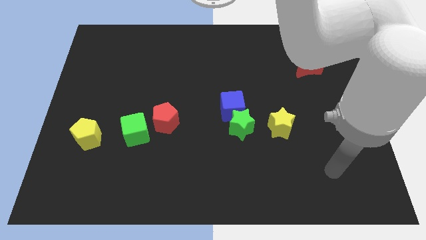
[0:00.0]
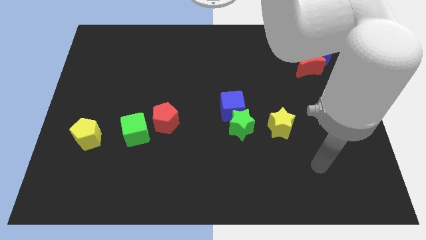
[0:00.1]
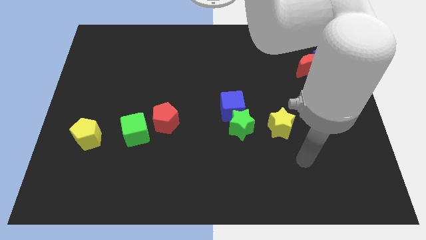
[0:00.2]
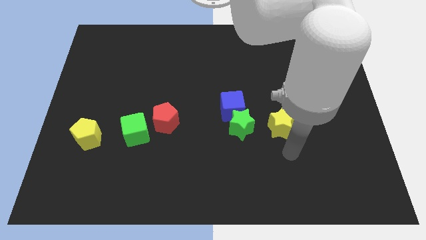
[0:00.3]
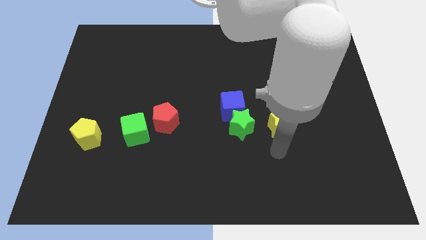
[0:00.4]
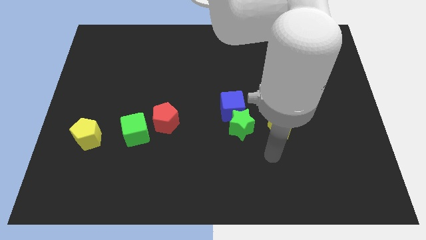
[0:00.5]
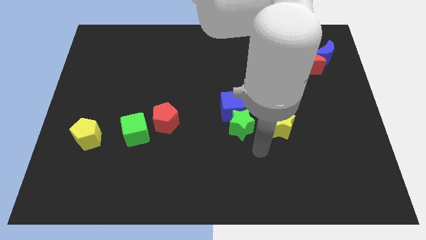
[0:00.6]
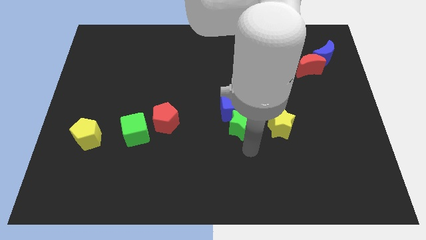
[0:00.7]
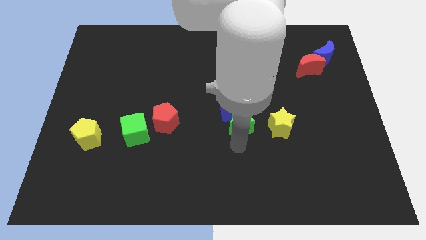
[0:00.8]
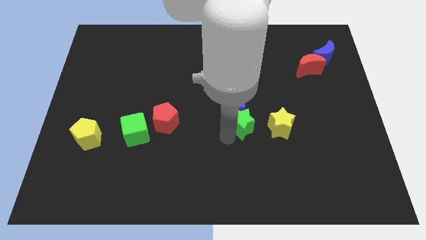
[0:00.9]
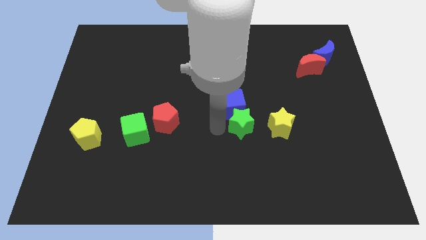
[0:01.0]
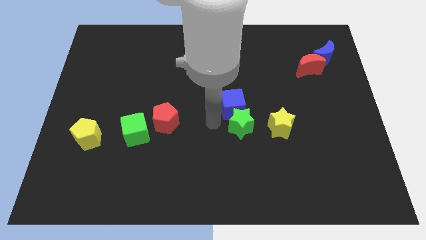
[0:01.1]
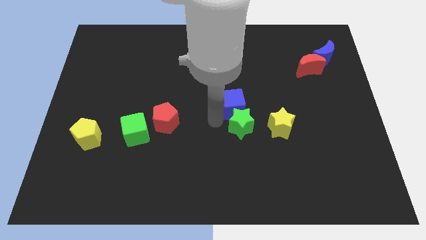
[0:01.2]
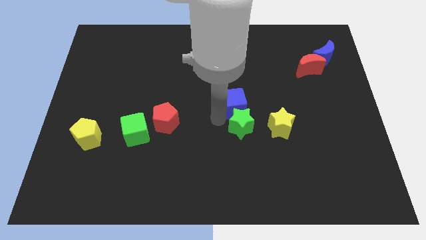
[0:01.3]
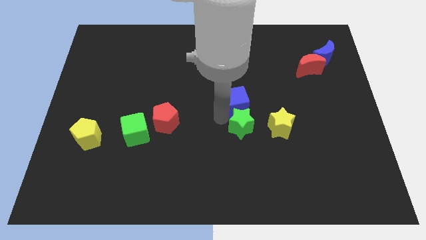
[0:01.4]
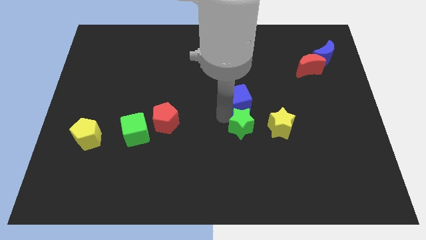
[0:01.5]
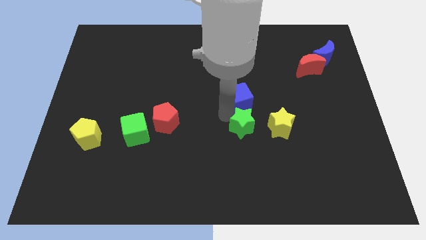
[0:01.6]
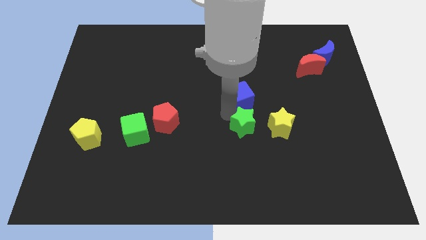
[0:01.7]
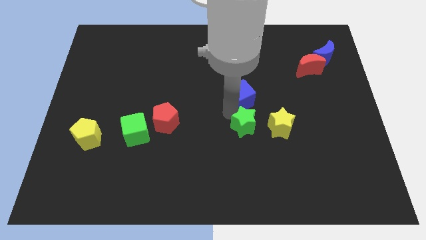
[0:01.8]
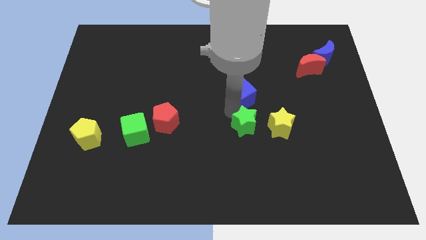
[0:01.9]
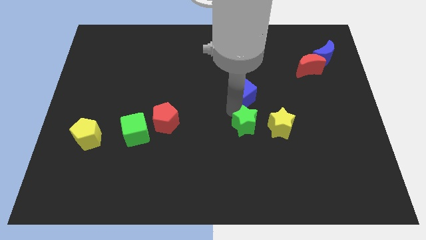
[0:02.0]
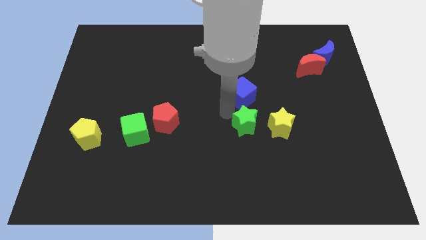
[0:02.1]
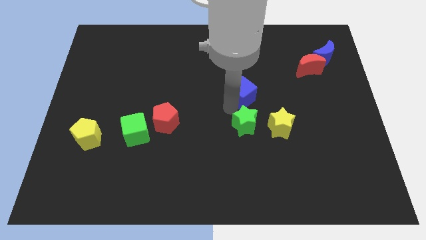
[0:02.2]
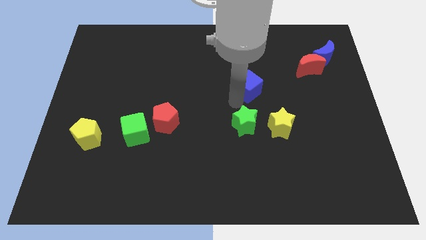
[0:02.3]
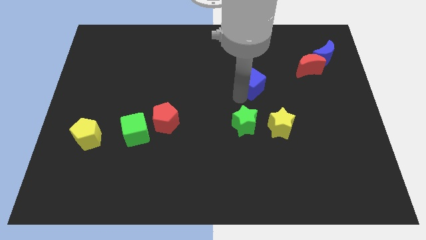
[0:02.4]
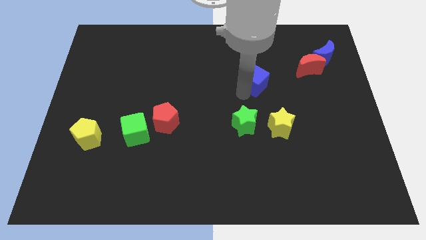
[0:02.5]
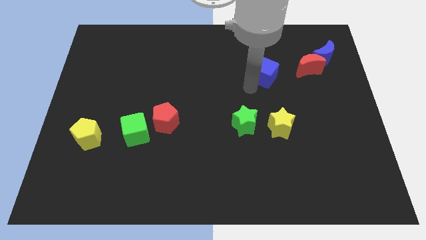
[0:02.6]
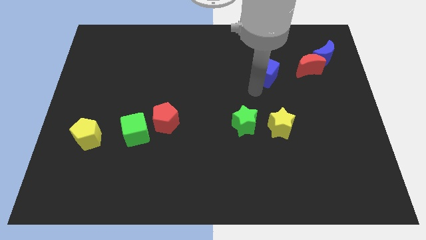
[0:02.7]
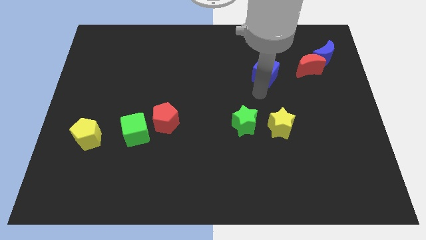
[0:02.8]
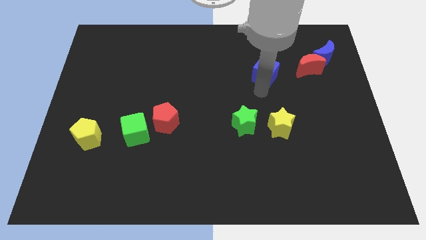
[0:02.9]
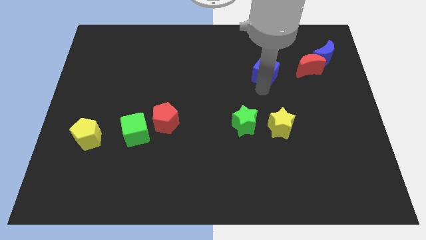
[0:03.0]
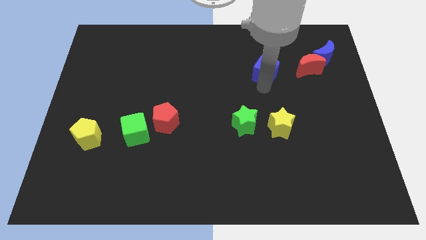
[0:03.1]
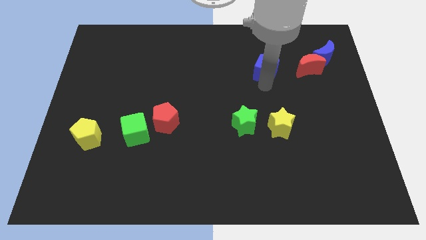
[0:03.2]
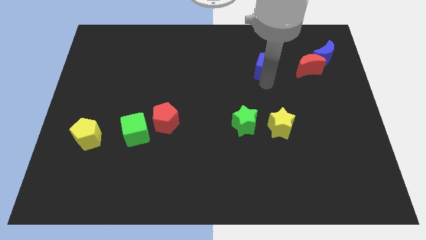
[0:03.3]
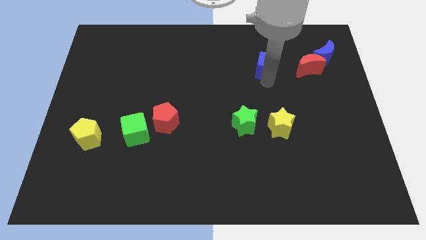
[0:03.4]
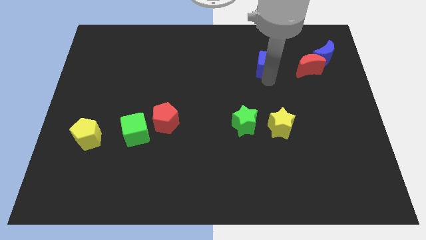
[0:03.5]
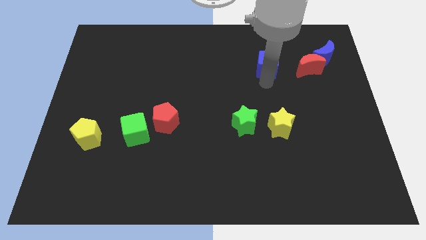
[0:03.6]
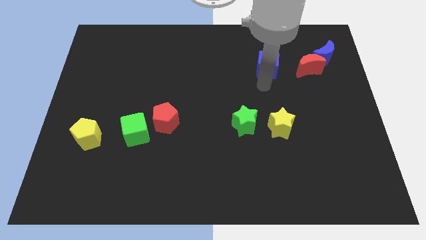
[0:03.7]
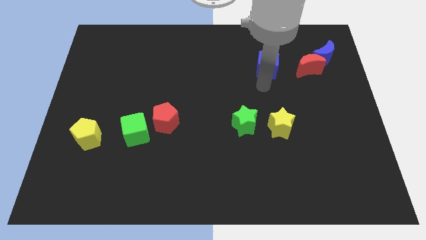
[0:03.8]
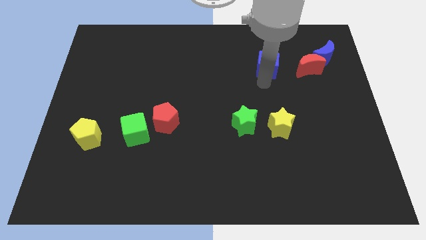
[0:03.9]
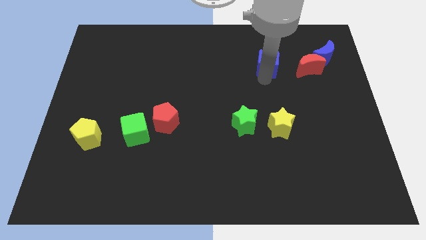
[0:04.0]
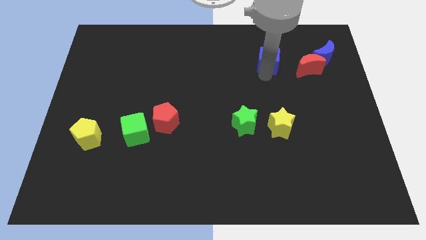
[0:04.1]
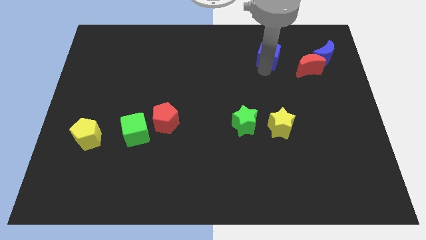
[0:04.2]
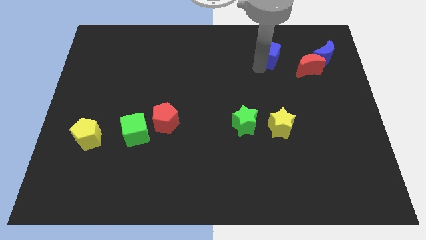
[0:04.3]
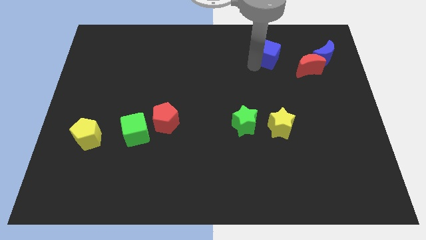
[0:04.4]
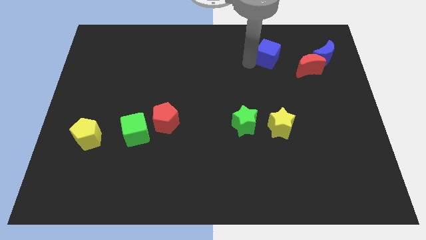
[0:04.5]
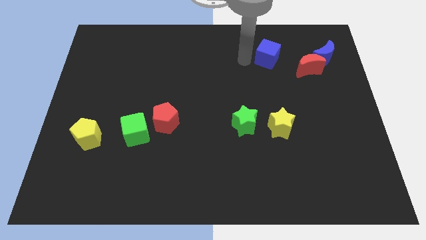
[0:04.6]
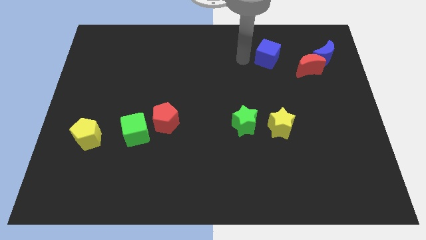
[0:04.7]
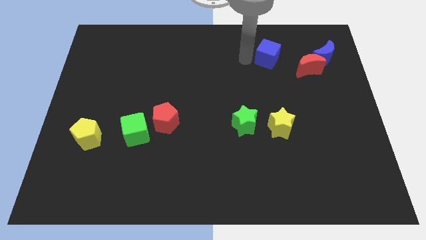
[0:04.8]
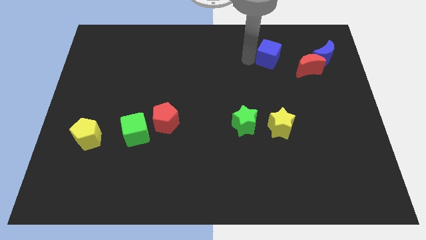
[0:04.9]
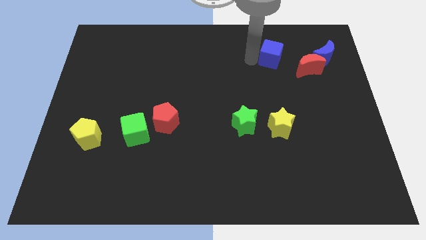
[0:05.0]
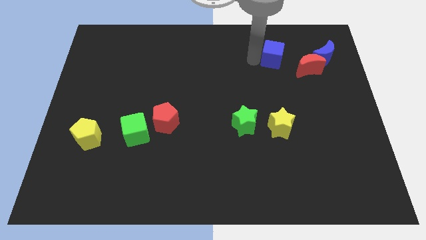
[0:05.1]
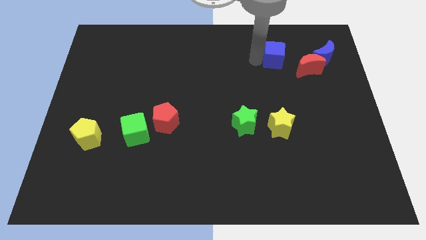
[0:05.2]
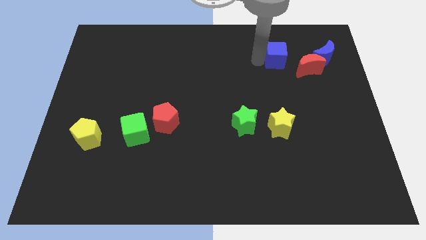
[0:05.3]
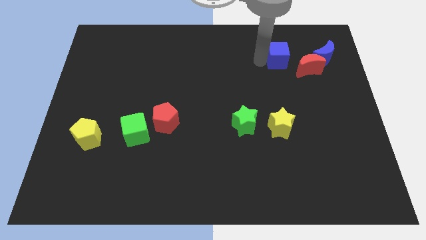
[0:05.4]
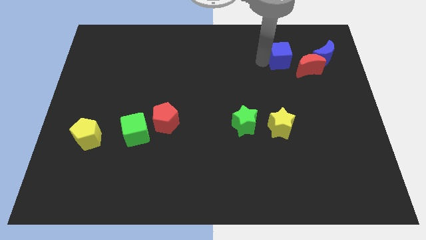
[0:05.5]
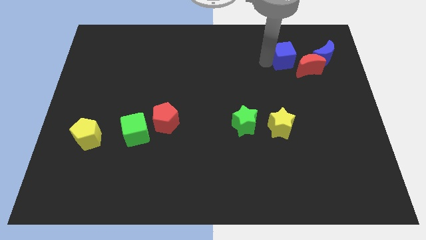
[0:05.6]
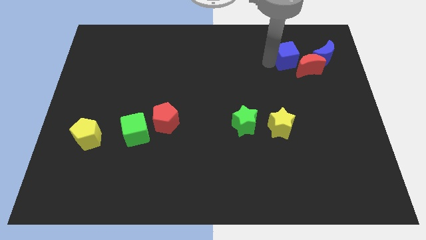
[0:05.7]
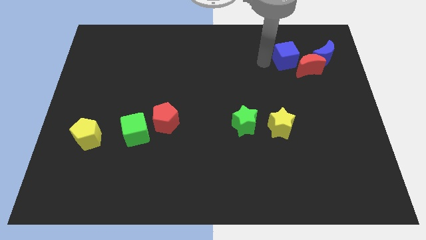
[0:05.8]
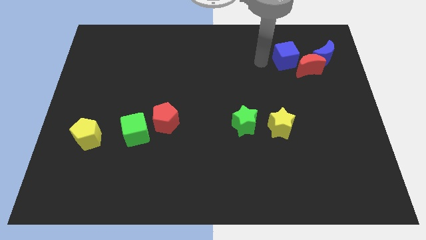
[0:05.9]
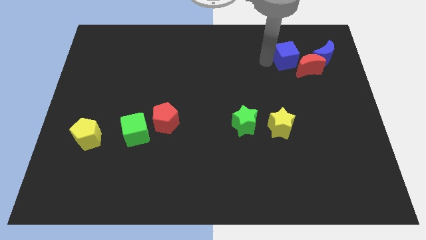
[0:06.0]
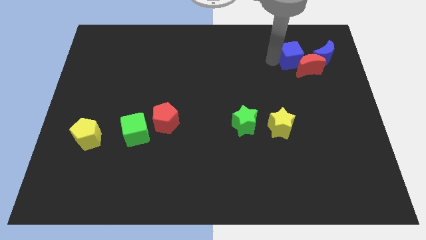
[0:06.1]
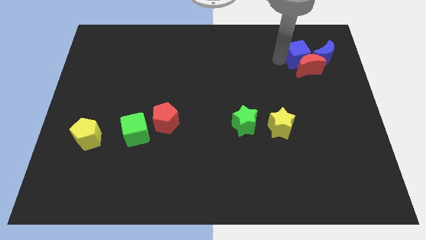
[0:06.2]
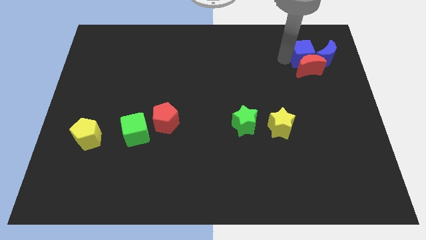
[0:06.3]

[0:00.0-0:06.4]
slide the blue cube close to the blue moon

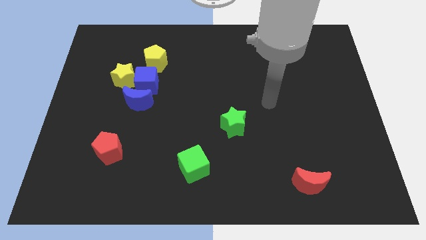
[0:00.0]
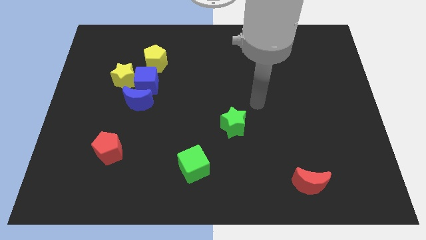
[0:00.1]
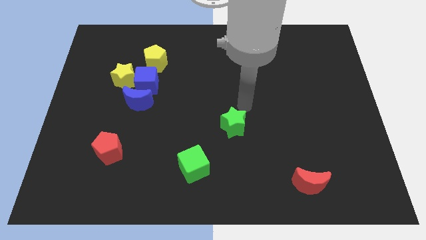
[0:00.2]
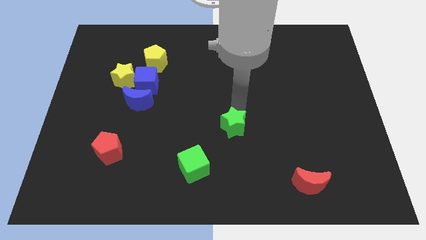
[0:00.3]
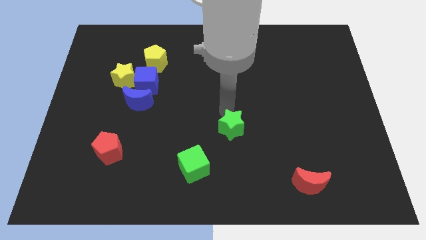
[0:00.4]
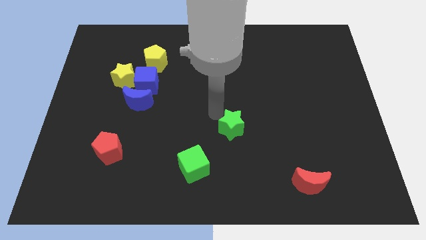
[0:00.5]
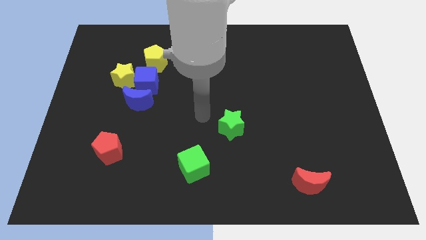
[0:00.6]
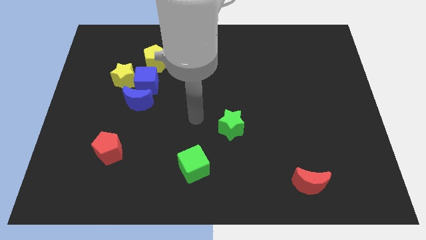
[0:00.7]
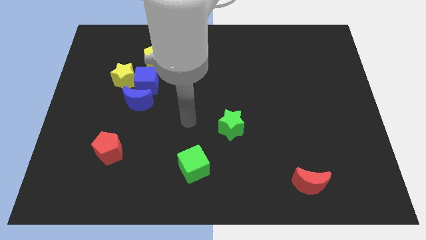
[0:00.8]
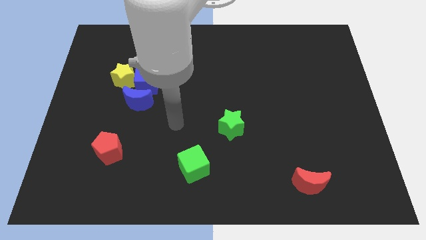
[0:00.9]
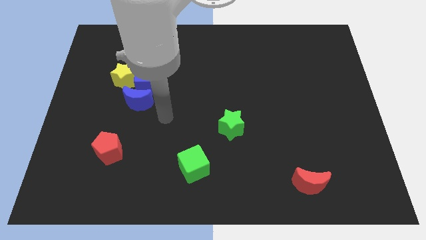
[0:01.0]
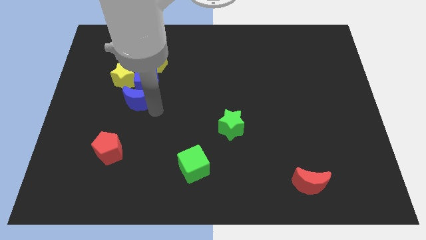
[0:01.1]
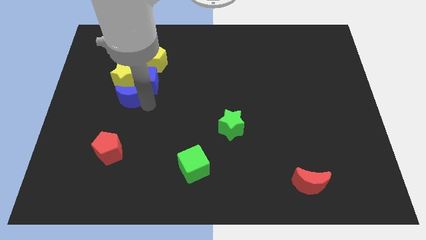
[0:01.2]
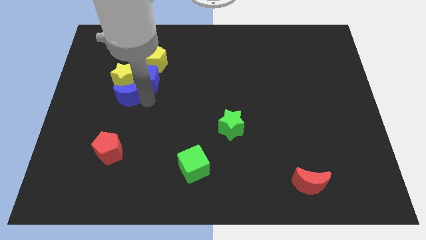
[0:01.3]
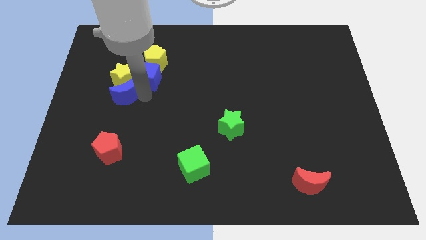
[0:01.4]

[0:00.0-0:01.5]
slide the blue cube close to the yellow pentagon
